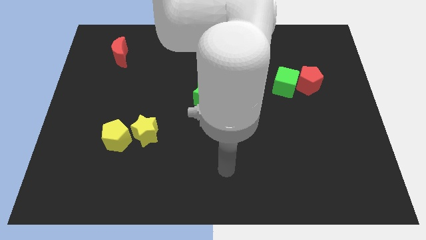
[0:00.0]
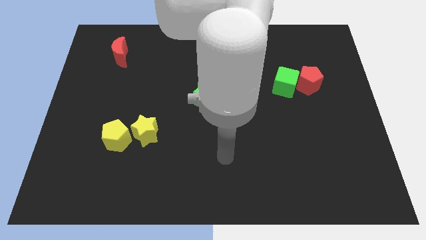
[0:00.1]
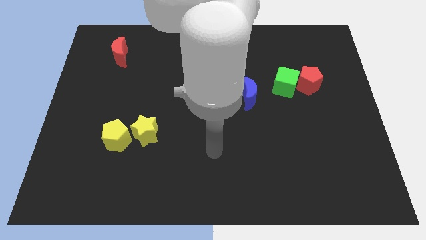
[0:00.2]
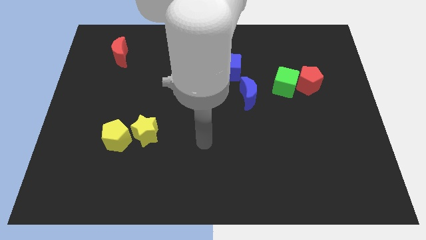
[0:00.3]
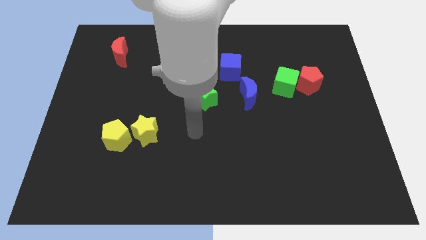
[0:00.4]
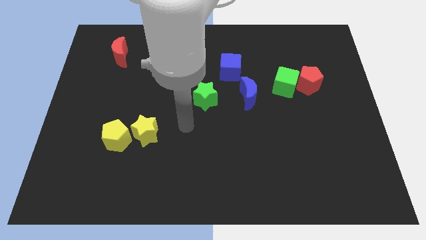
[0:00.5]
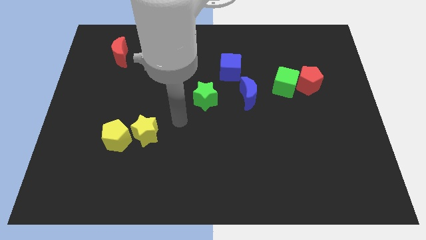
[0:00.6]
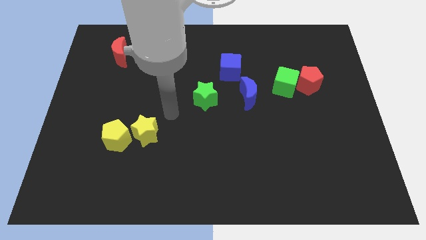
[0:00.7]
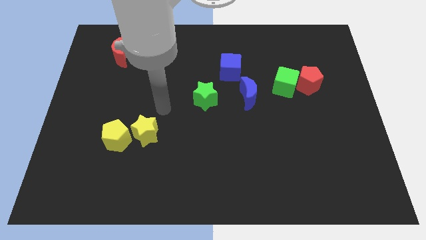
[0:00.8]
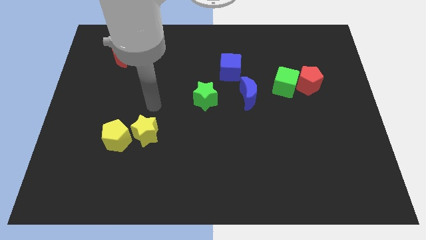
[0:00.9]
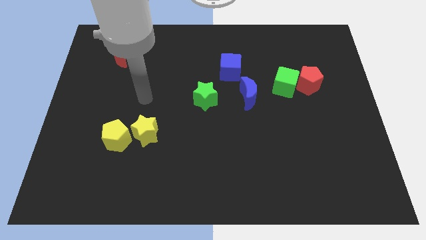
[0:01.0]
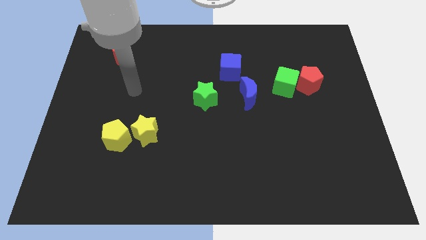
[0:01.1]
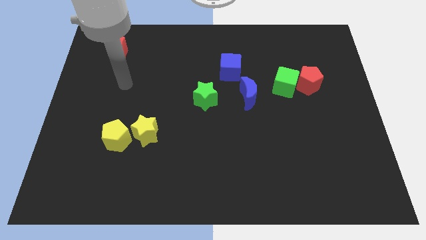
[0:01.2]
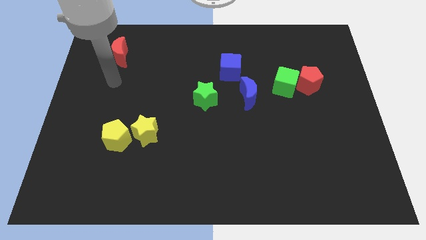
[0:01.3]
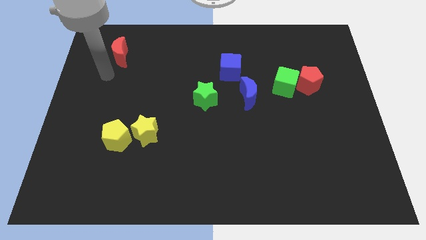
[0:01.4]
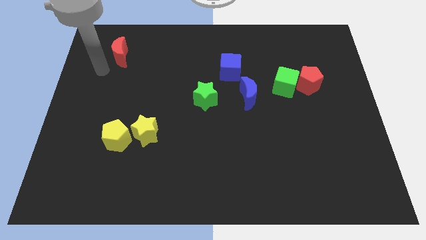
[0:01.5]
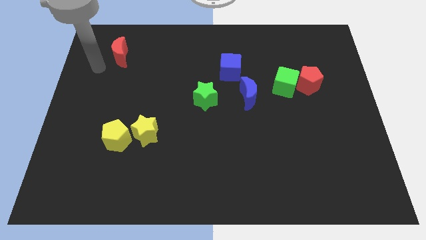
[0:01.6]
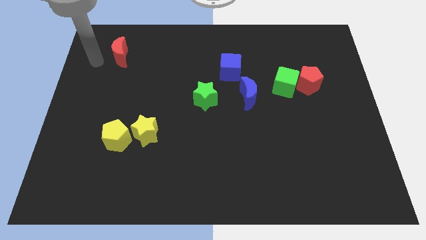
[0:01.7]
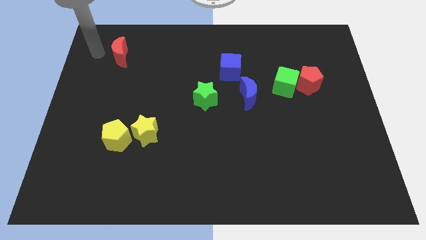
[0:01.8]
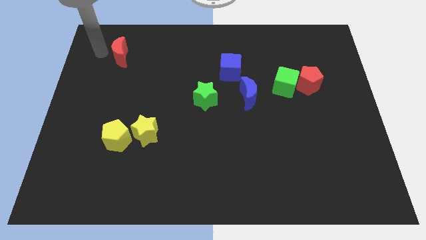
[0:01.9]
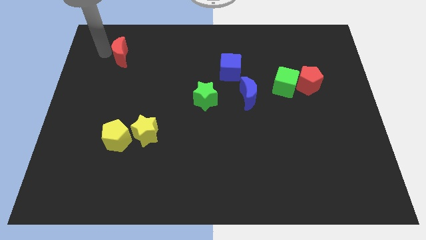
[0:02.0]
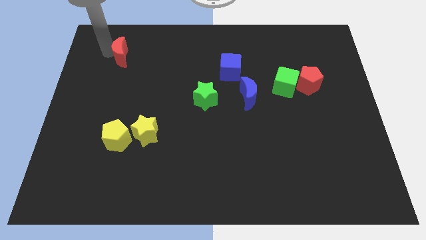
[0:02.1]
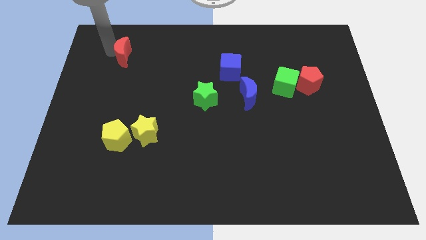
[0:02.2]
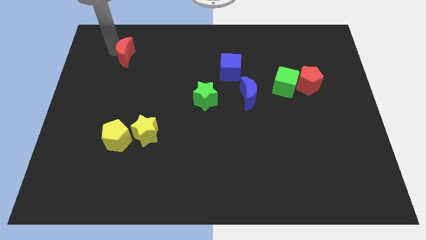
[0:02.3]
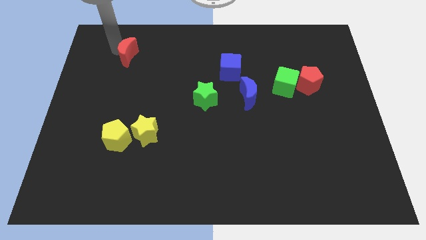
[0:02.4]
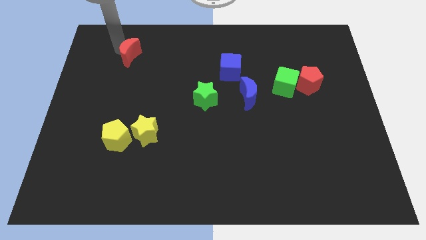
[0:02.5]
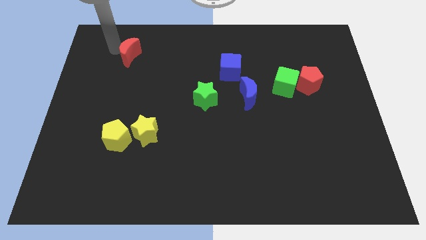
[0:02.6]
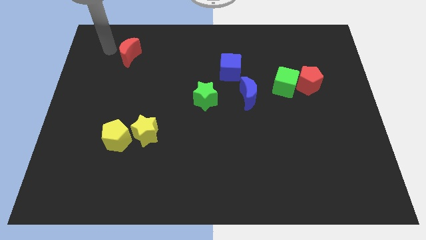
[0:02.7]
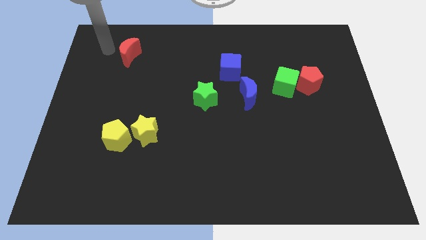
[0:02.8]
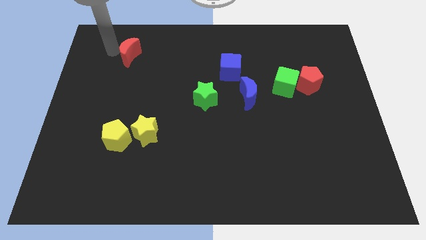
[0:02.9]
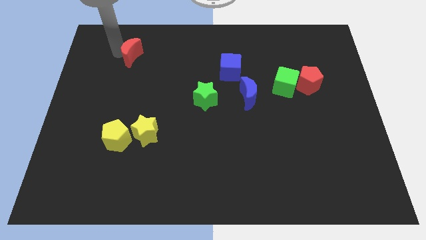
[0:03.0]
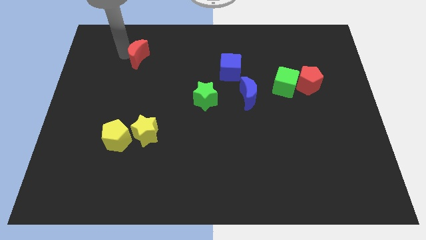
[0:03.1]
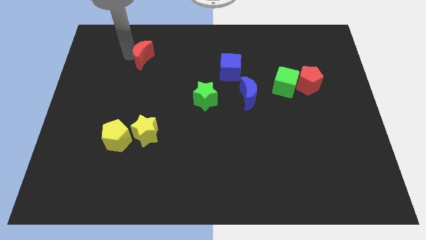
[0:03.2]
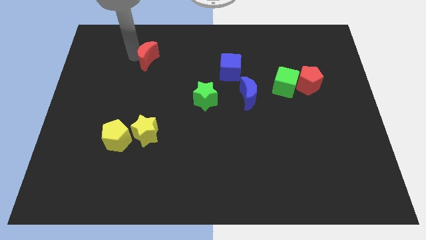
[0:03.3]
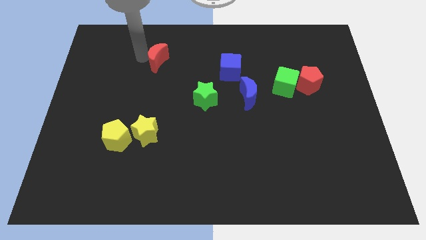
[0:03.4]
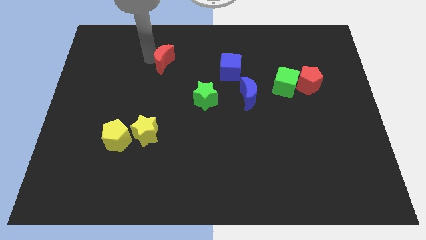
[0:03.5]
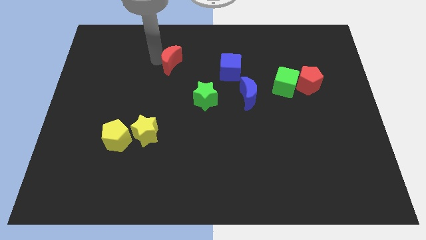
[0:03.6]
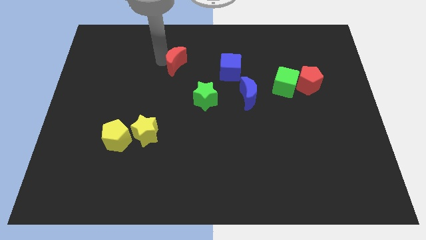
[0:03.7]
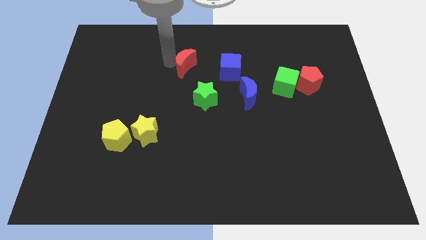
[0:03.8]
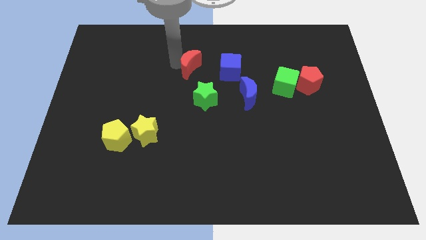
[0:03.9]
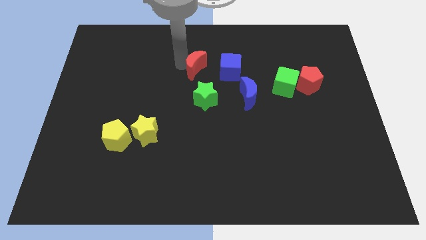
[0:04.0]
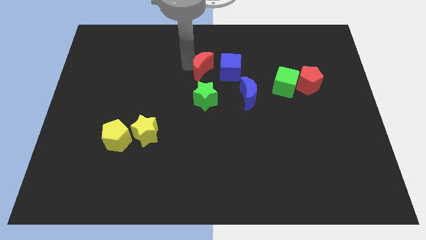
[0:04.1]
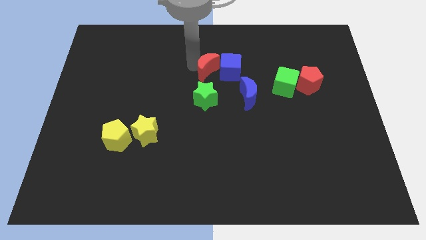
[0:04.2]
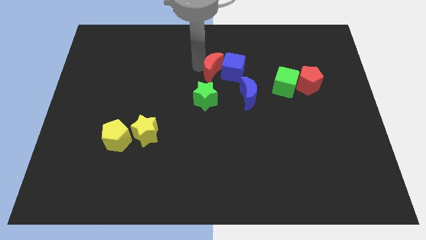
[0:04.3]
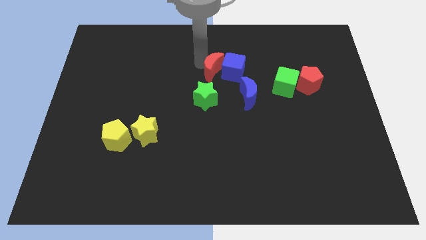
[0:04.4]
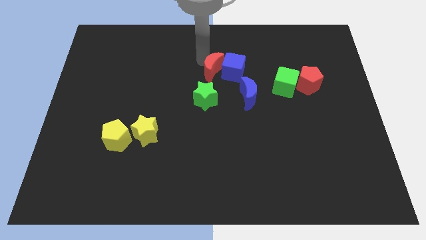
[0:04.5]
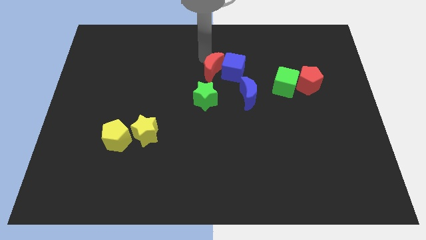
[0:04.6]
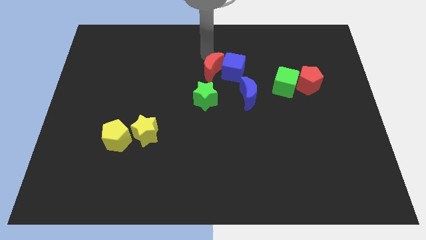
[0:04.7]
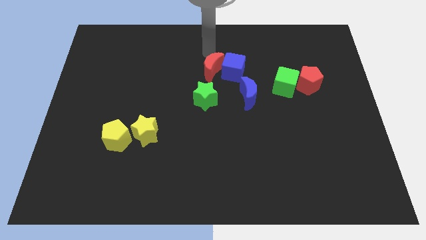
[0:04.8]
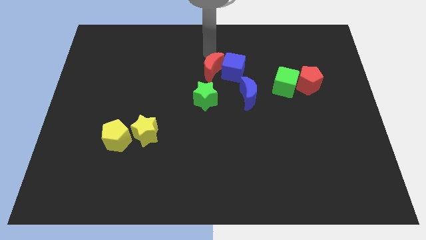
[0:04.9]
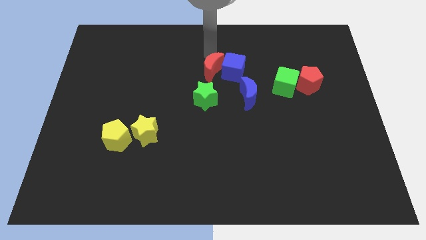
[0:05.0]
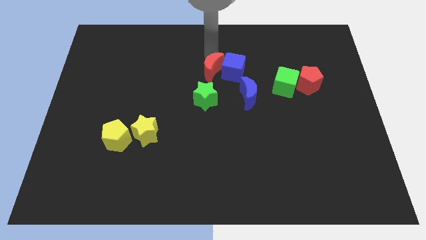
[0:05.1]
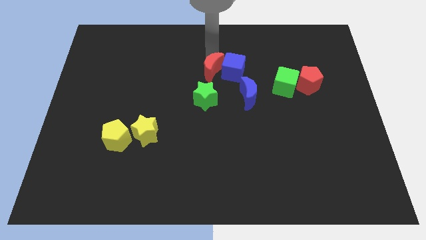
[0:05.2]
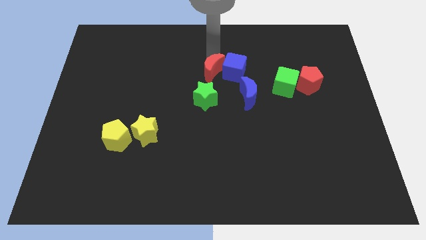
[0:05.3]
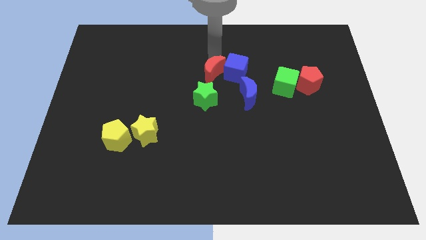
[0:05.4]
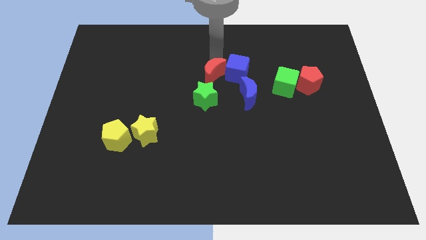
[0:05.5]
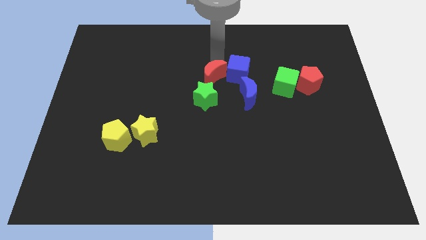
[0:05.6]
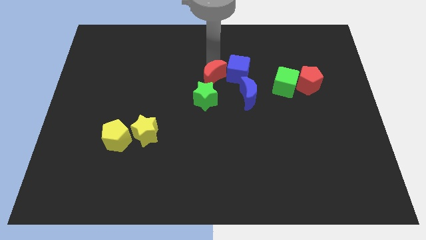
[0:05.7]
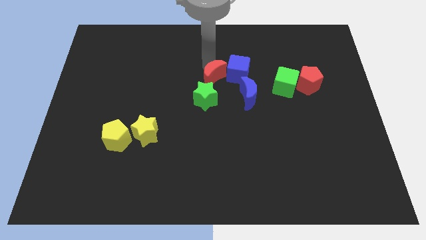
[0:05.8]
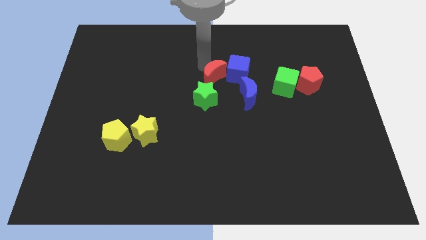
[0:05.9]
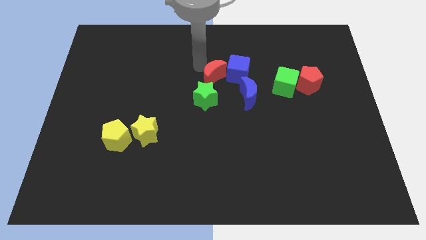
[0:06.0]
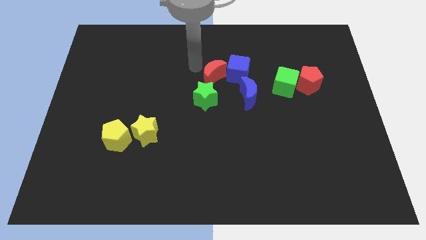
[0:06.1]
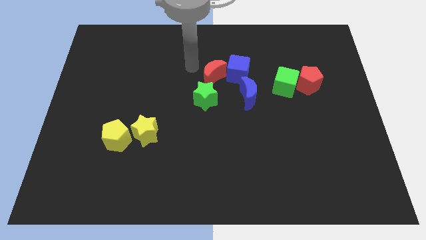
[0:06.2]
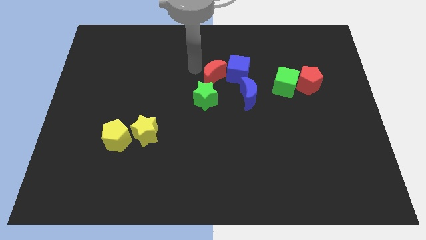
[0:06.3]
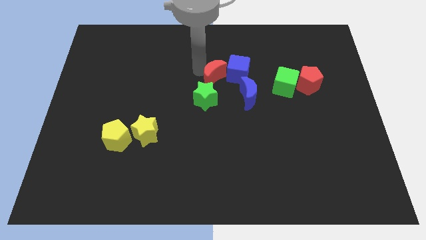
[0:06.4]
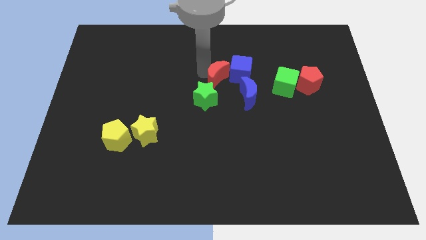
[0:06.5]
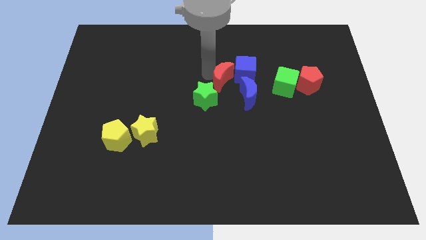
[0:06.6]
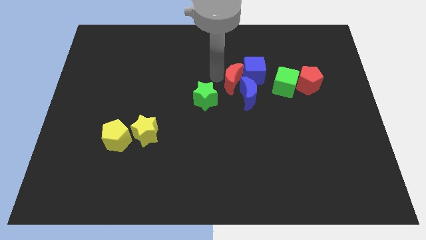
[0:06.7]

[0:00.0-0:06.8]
put the red moon towards the blue moon

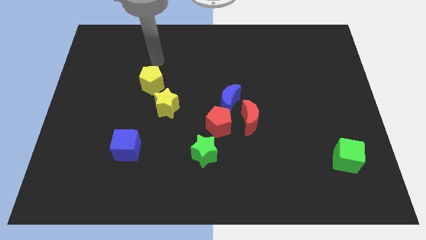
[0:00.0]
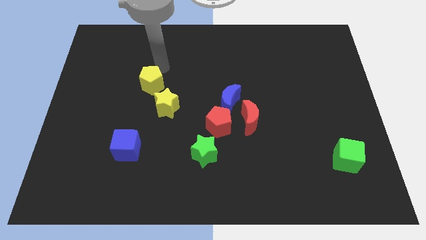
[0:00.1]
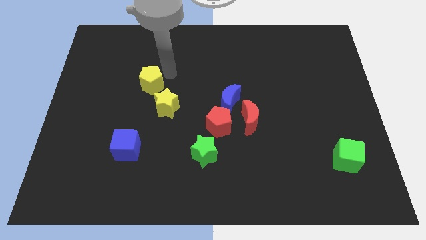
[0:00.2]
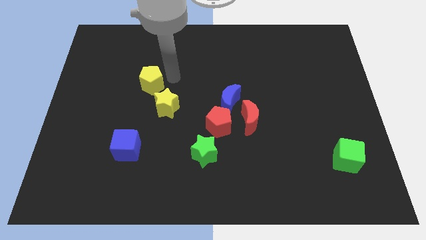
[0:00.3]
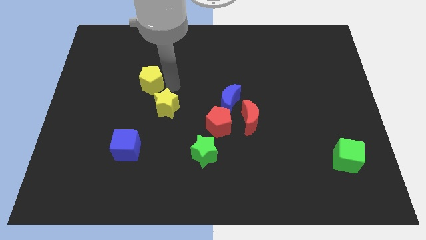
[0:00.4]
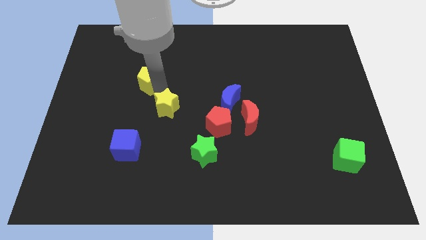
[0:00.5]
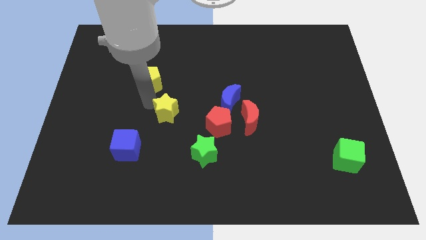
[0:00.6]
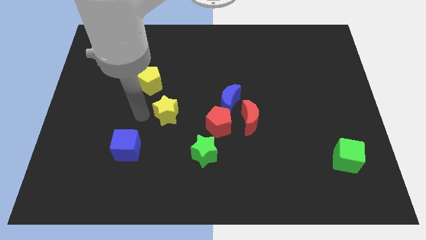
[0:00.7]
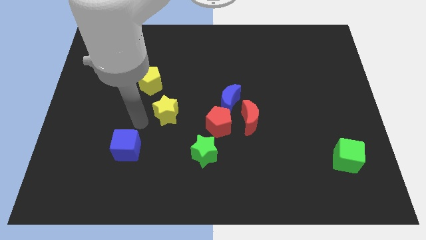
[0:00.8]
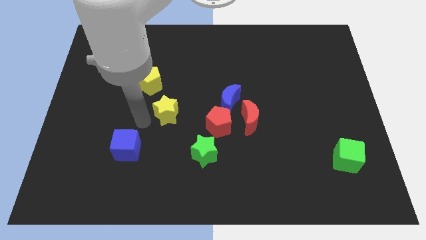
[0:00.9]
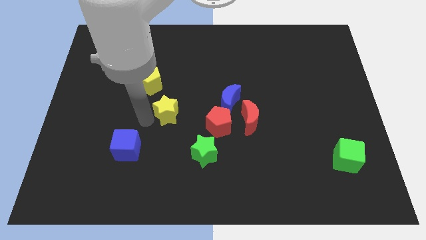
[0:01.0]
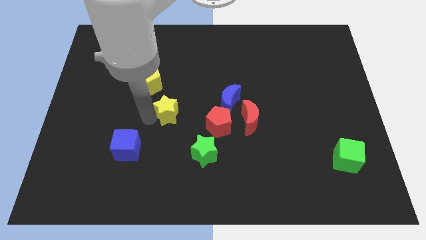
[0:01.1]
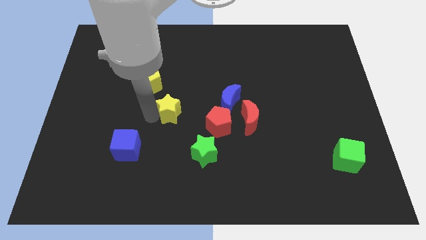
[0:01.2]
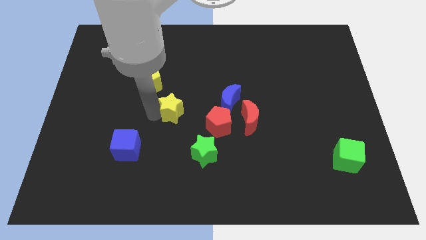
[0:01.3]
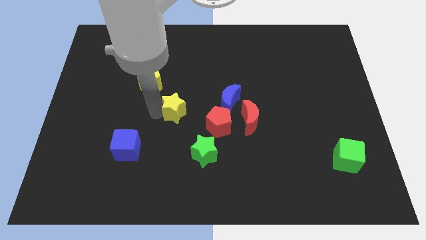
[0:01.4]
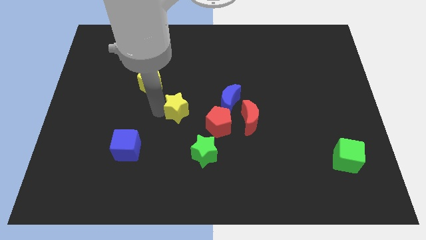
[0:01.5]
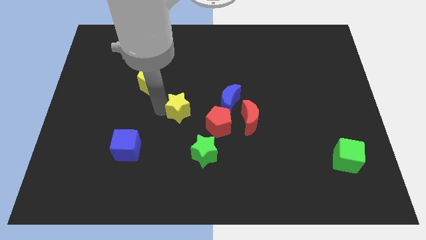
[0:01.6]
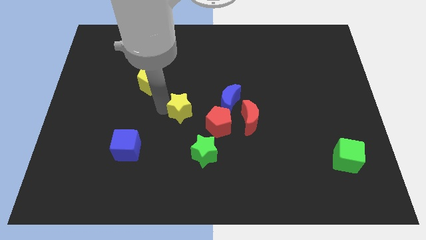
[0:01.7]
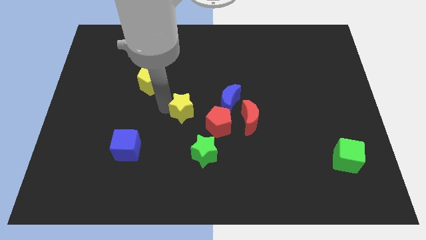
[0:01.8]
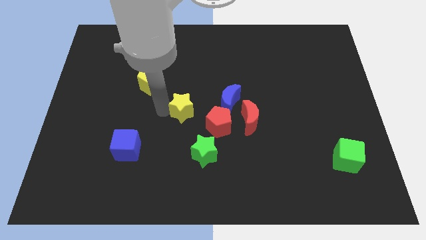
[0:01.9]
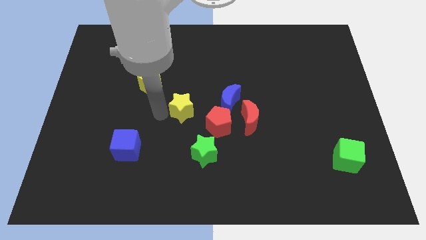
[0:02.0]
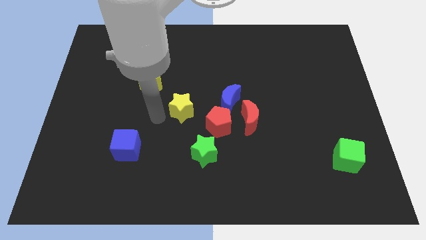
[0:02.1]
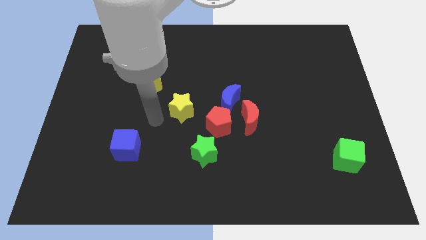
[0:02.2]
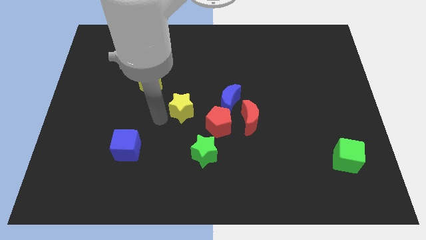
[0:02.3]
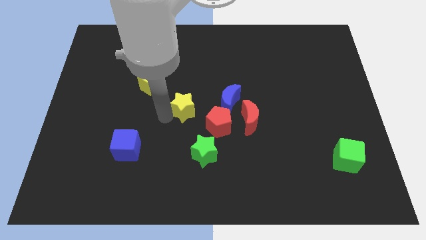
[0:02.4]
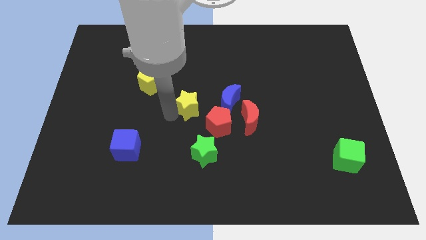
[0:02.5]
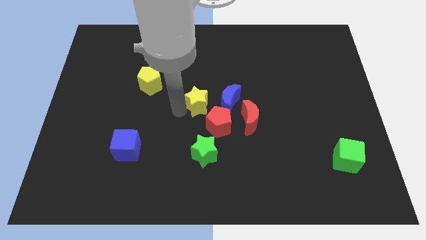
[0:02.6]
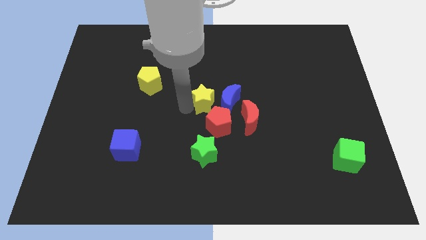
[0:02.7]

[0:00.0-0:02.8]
move the yellow star close to the blue moon
